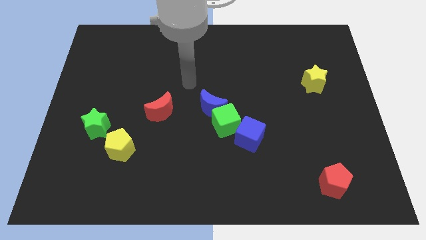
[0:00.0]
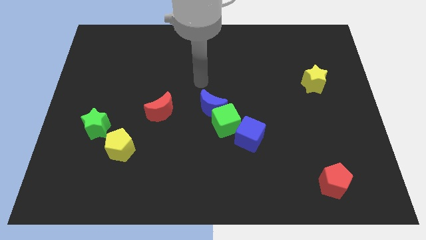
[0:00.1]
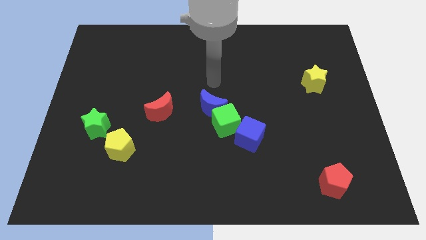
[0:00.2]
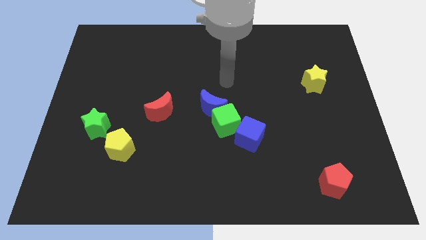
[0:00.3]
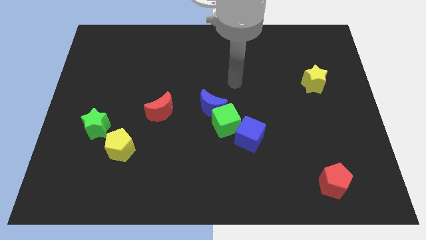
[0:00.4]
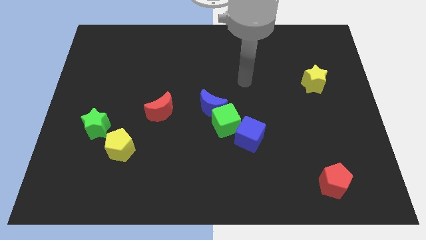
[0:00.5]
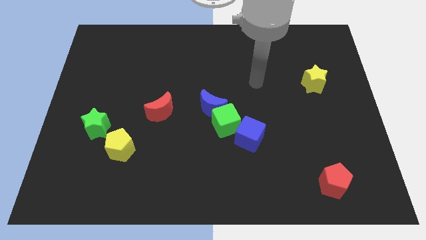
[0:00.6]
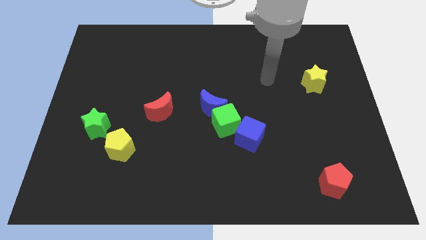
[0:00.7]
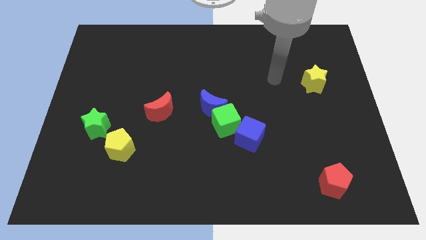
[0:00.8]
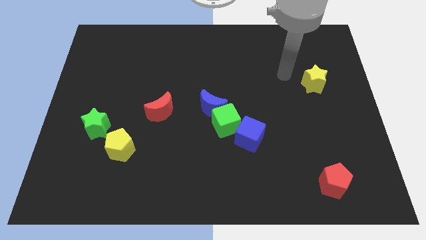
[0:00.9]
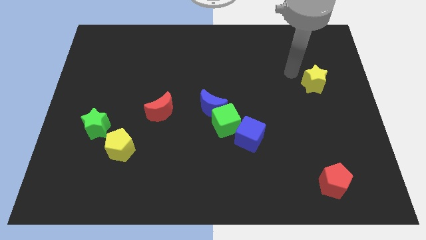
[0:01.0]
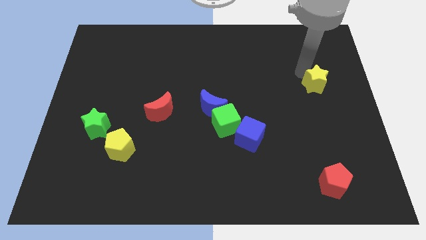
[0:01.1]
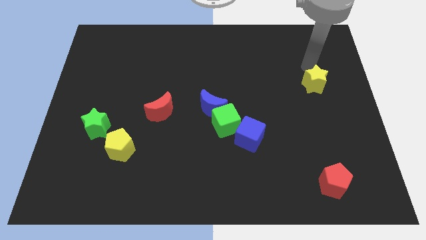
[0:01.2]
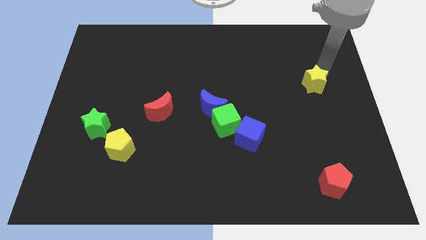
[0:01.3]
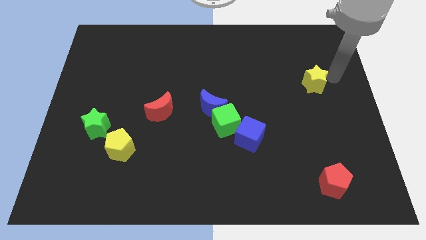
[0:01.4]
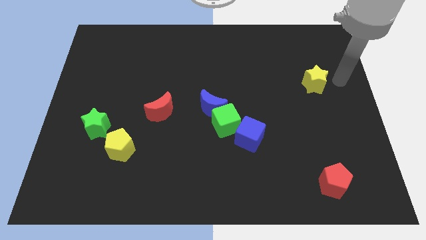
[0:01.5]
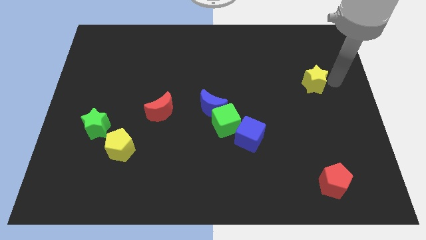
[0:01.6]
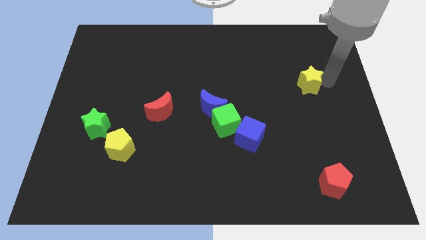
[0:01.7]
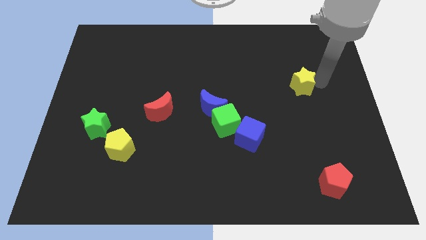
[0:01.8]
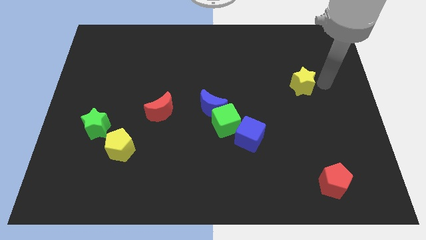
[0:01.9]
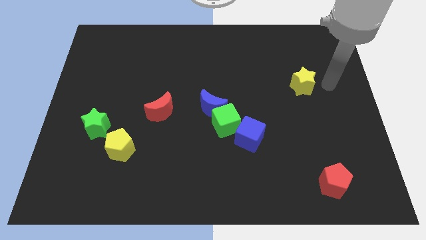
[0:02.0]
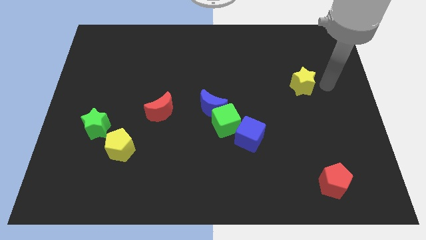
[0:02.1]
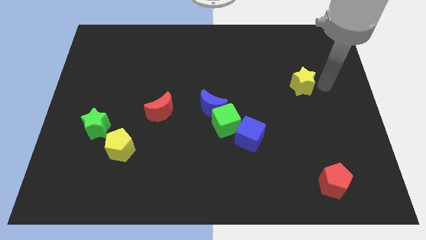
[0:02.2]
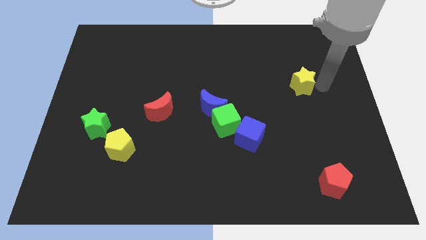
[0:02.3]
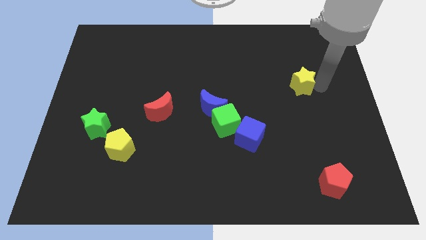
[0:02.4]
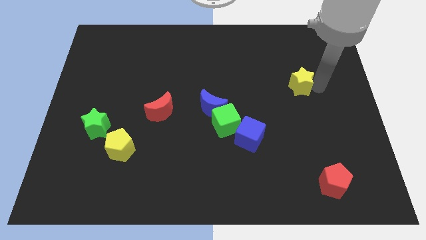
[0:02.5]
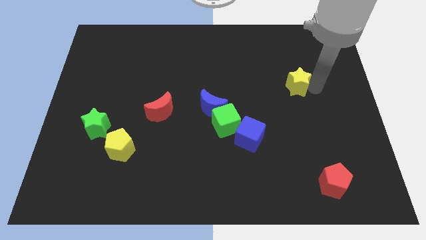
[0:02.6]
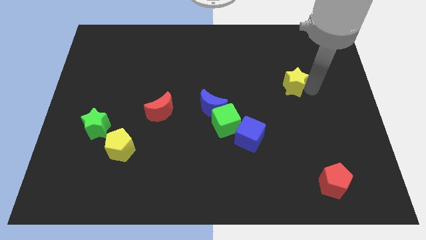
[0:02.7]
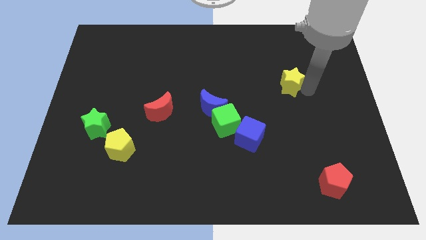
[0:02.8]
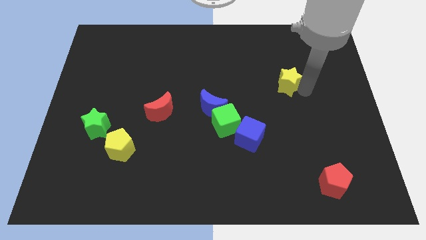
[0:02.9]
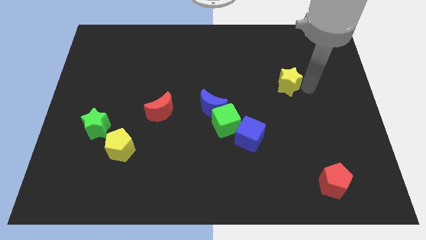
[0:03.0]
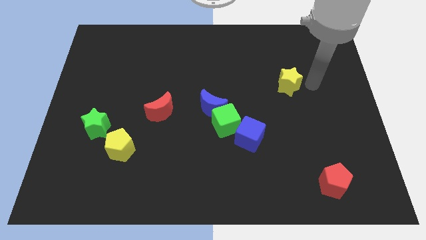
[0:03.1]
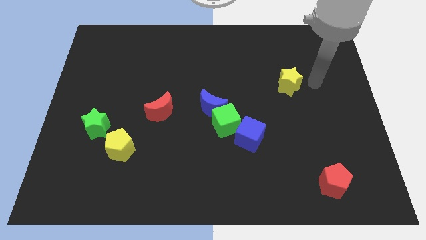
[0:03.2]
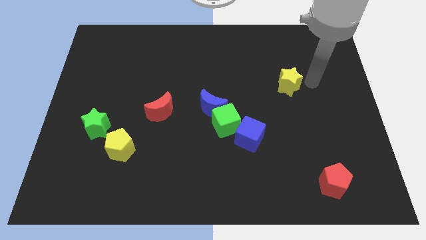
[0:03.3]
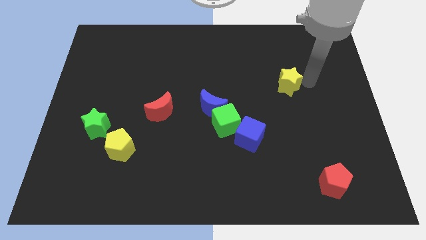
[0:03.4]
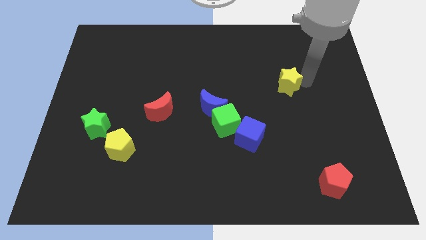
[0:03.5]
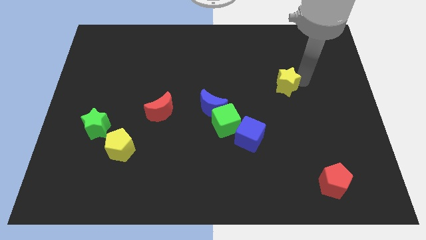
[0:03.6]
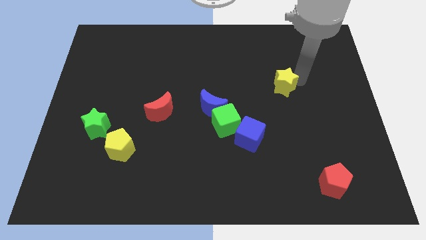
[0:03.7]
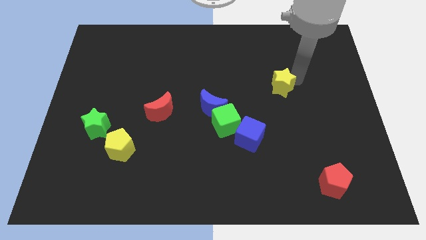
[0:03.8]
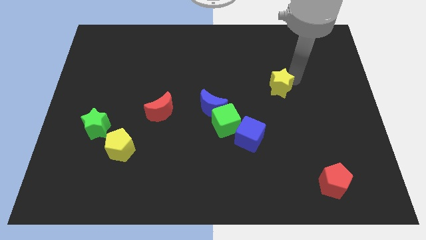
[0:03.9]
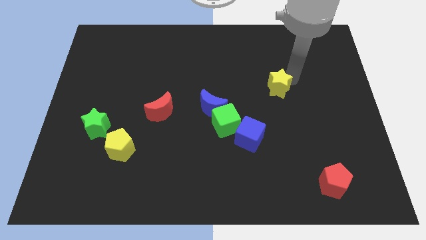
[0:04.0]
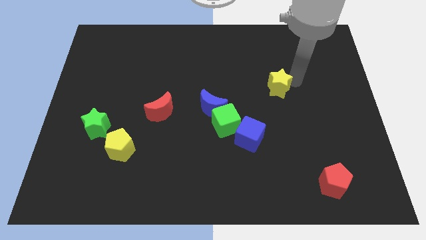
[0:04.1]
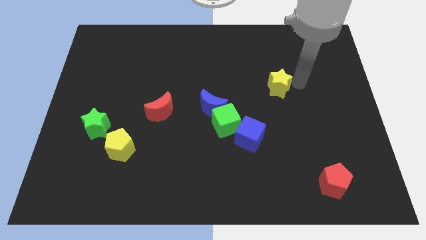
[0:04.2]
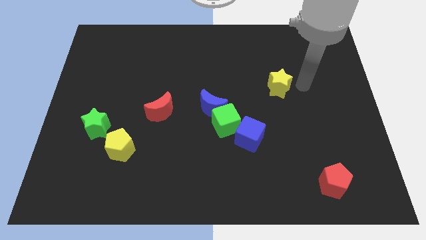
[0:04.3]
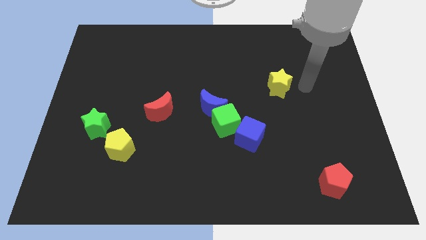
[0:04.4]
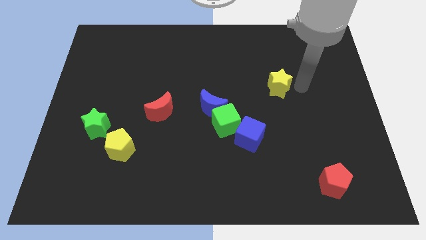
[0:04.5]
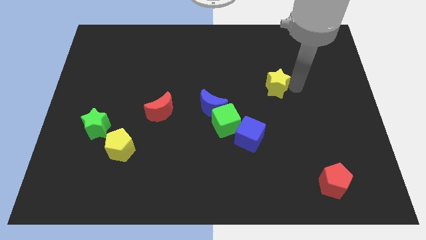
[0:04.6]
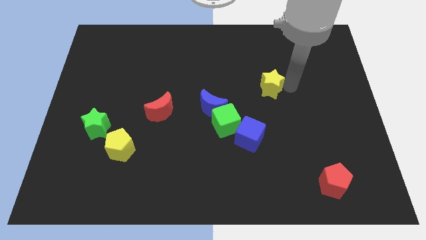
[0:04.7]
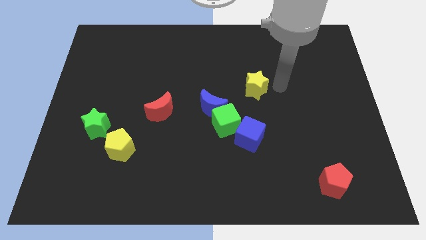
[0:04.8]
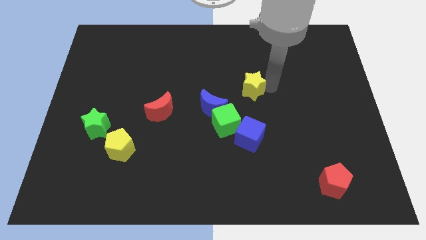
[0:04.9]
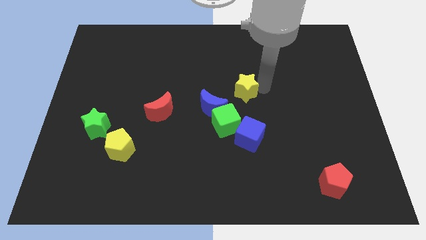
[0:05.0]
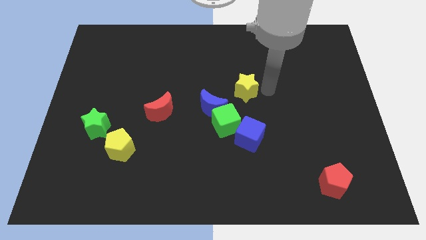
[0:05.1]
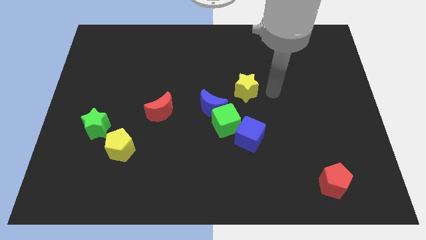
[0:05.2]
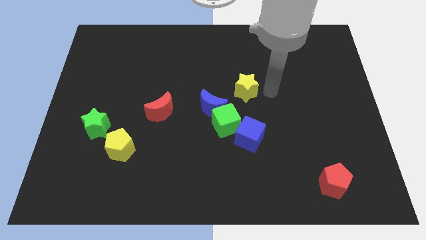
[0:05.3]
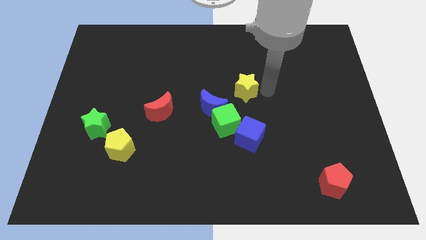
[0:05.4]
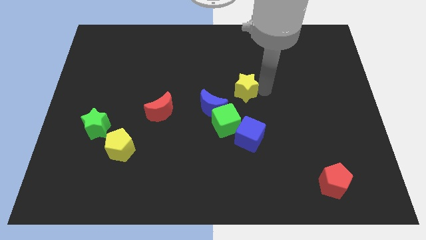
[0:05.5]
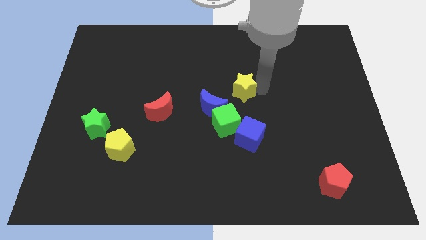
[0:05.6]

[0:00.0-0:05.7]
move the yellow star above the green cube
